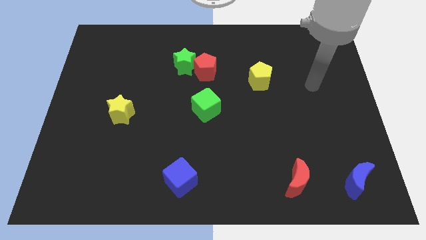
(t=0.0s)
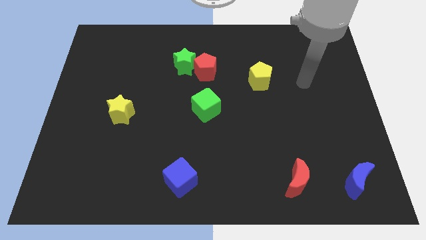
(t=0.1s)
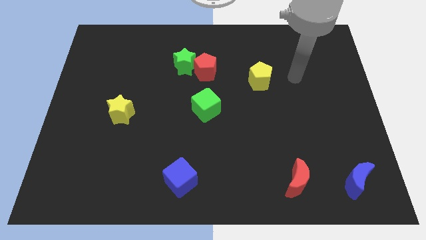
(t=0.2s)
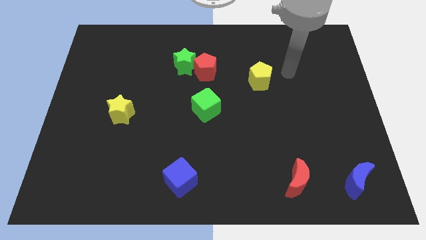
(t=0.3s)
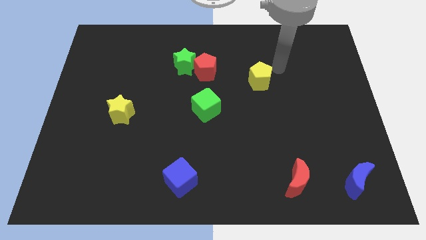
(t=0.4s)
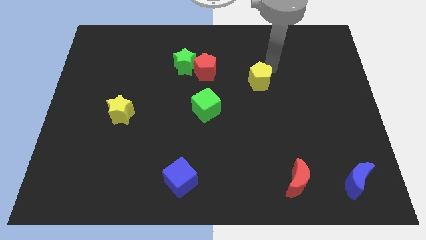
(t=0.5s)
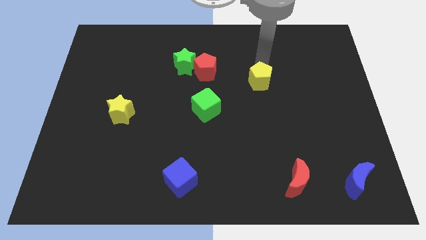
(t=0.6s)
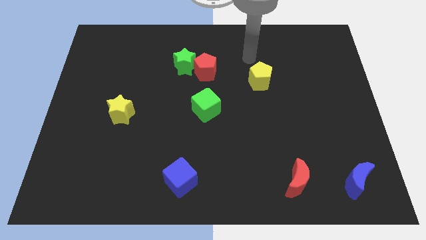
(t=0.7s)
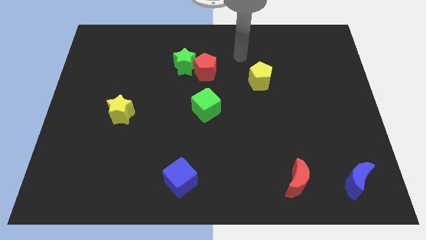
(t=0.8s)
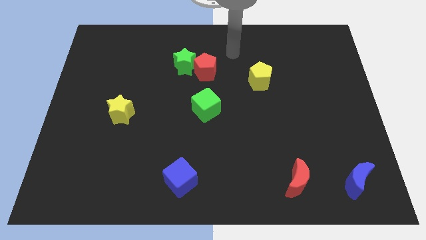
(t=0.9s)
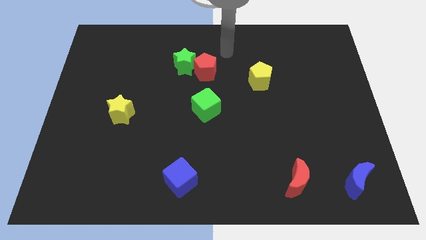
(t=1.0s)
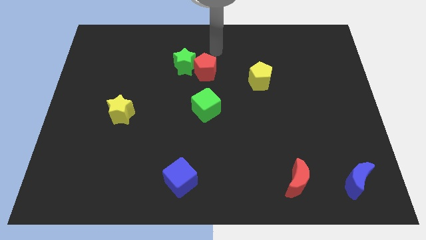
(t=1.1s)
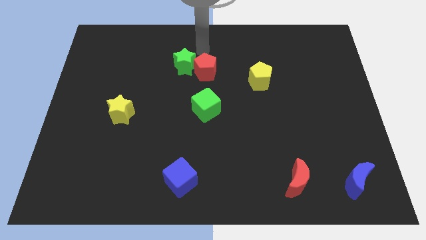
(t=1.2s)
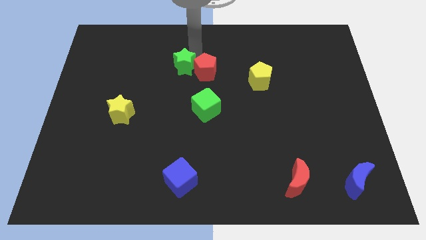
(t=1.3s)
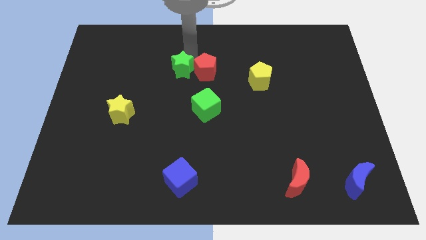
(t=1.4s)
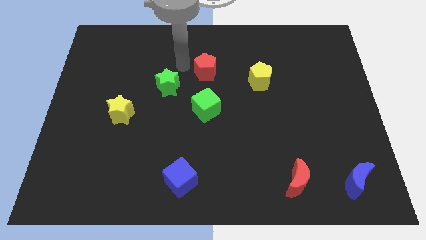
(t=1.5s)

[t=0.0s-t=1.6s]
move the red pentagon away from the green star

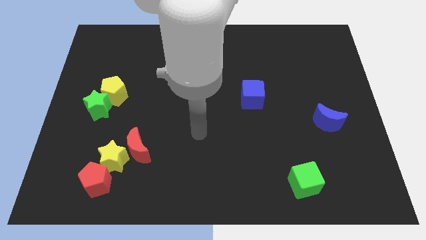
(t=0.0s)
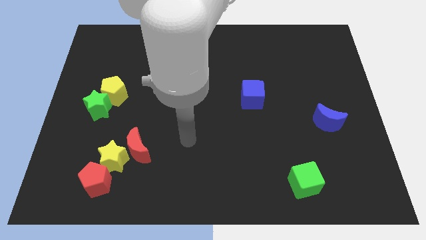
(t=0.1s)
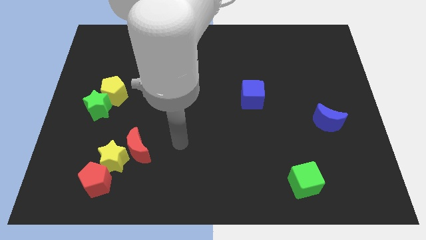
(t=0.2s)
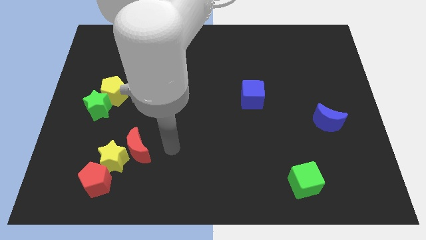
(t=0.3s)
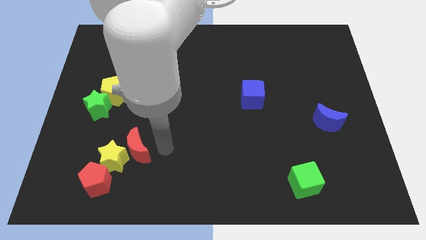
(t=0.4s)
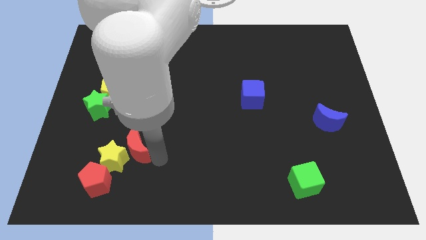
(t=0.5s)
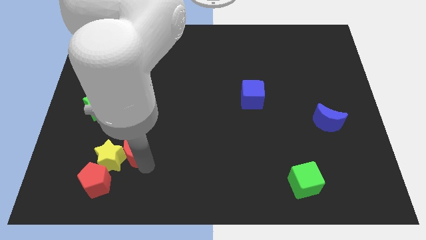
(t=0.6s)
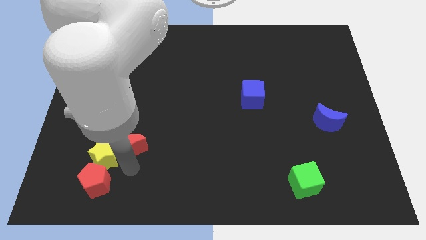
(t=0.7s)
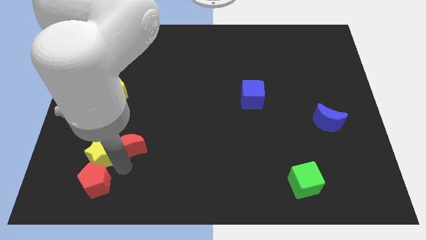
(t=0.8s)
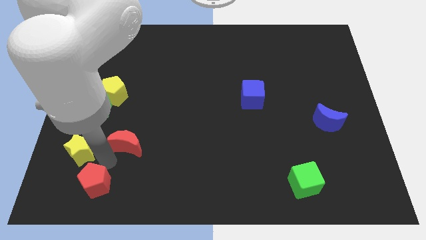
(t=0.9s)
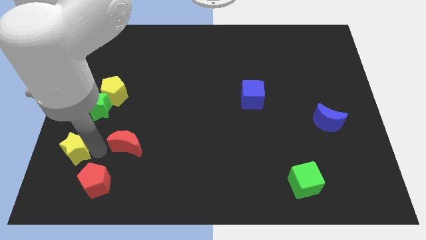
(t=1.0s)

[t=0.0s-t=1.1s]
separate the red moon from the yellow star

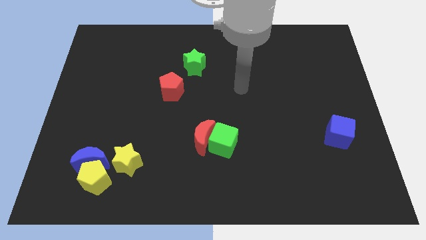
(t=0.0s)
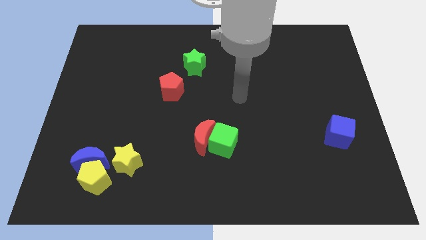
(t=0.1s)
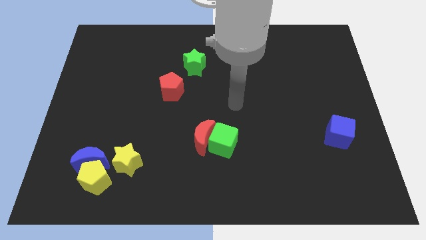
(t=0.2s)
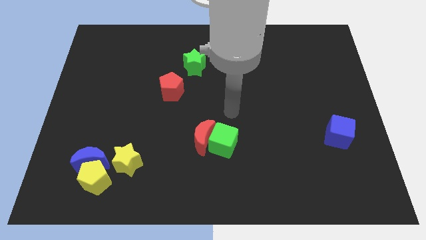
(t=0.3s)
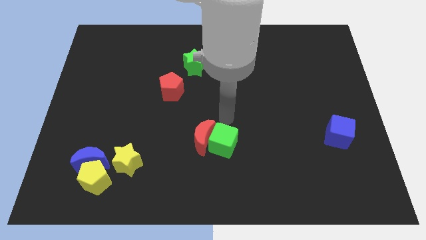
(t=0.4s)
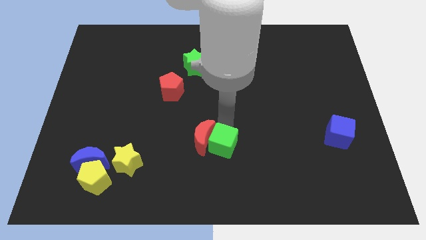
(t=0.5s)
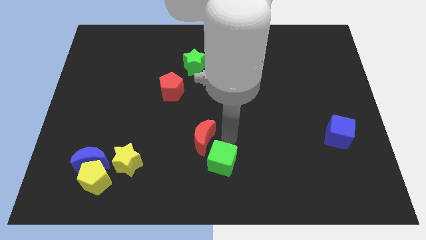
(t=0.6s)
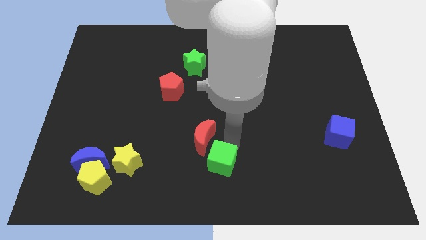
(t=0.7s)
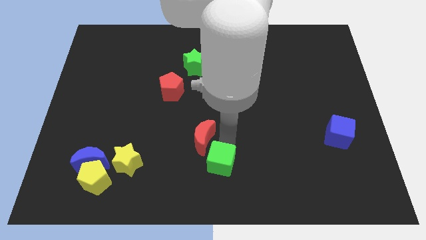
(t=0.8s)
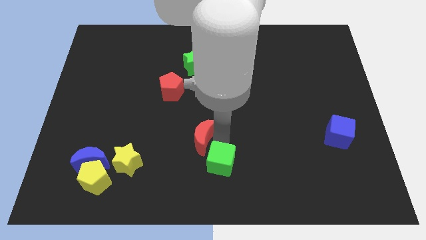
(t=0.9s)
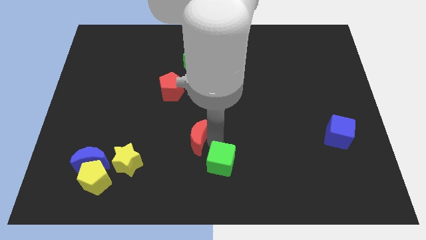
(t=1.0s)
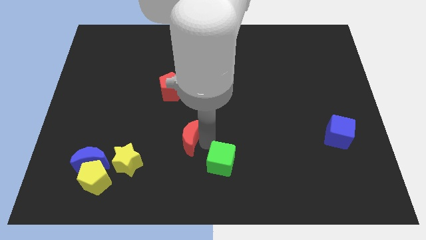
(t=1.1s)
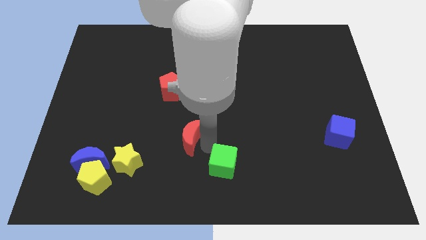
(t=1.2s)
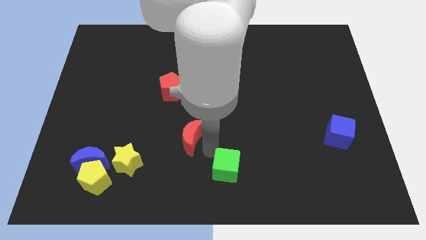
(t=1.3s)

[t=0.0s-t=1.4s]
pull the red moon apart from the green cube

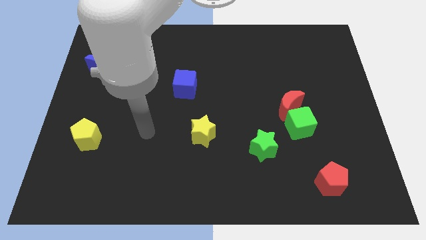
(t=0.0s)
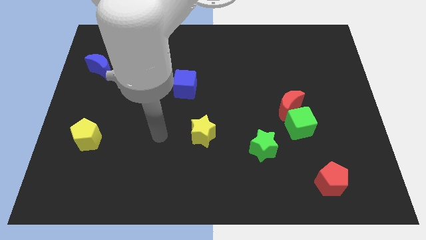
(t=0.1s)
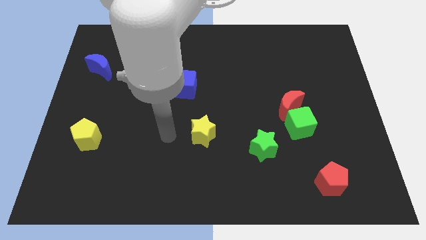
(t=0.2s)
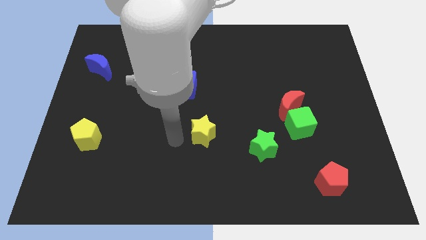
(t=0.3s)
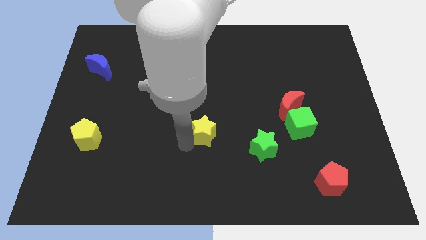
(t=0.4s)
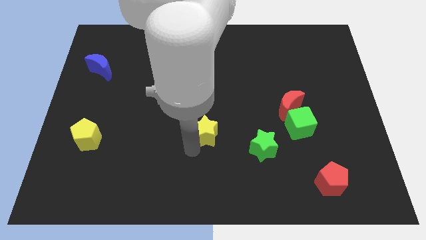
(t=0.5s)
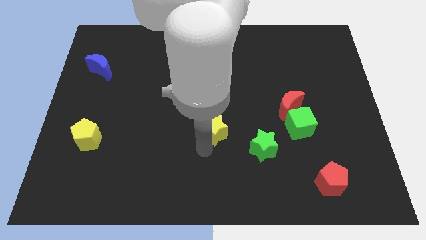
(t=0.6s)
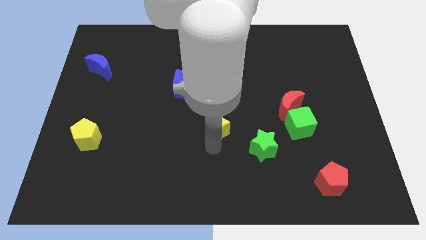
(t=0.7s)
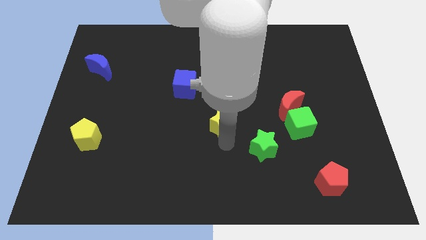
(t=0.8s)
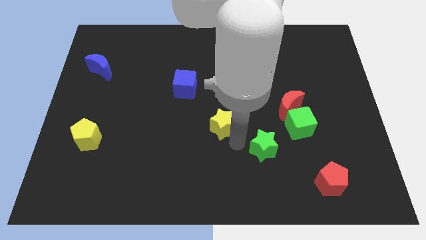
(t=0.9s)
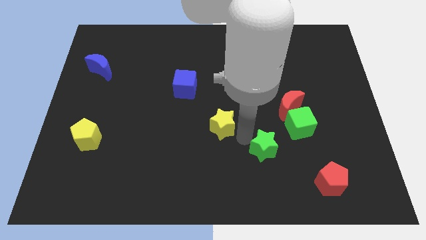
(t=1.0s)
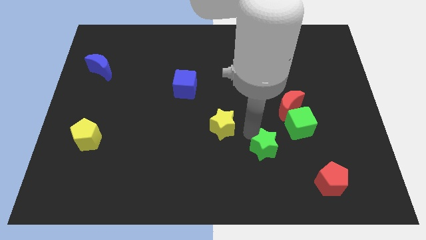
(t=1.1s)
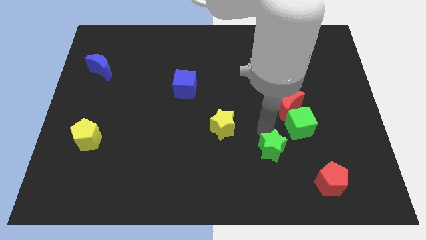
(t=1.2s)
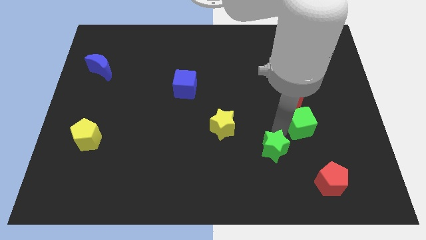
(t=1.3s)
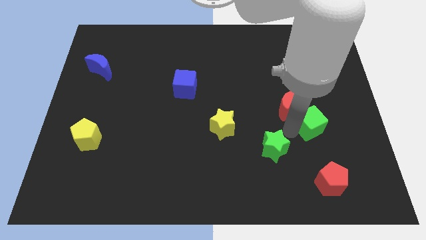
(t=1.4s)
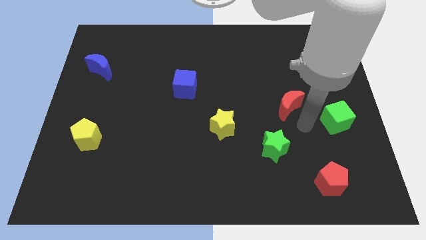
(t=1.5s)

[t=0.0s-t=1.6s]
move the red moon away from the green cube

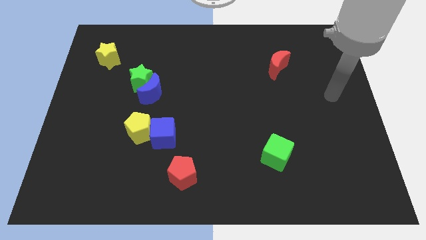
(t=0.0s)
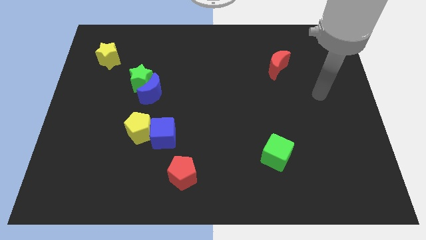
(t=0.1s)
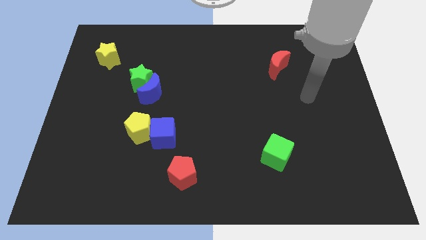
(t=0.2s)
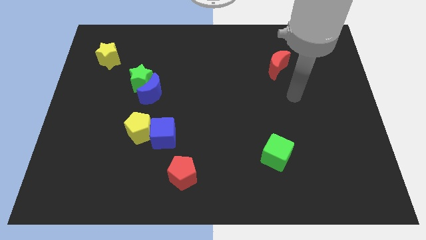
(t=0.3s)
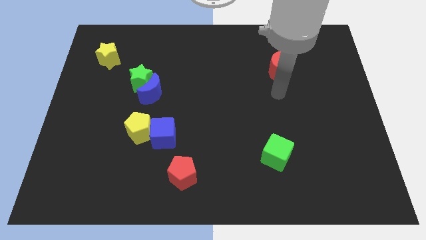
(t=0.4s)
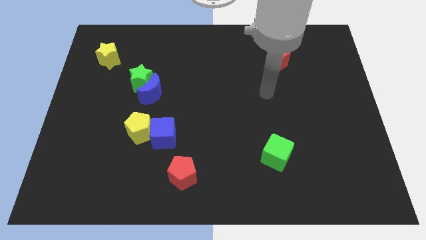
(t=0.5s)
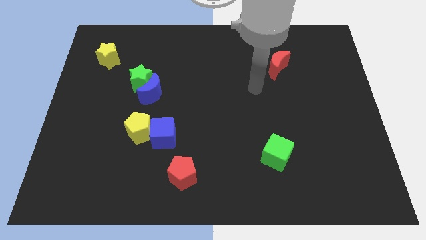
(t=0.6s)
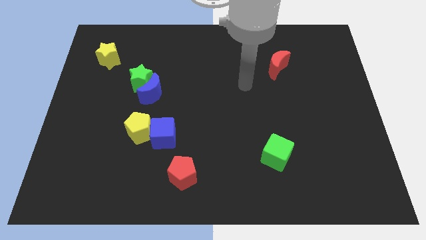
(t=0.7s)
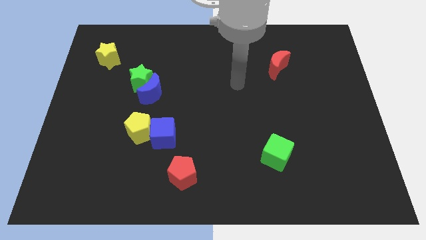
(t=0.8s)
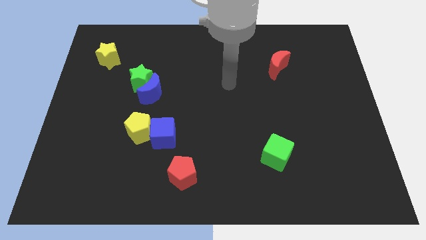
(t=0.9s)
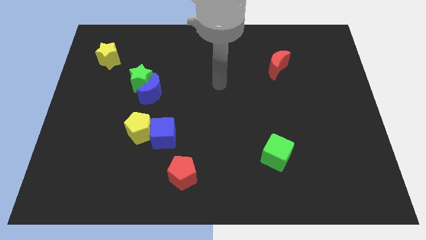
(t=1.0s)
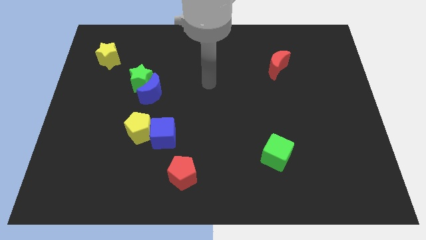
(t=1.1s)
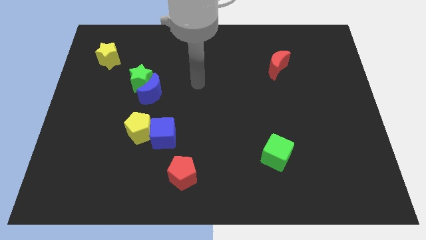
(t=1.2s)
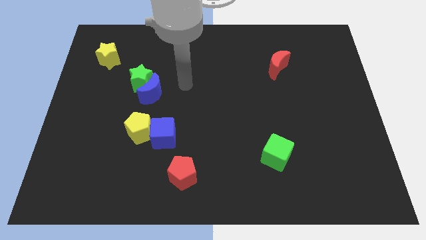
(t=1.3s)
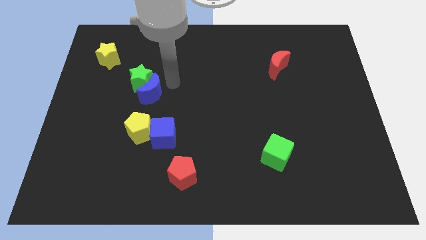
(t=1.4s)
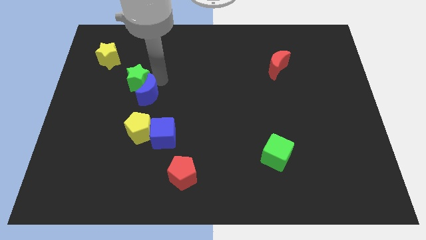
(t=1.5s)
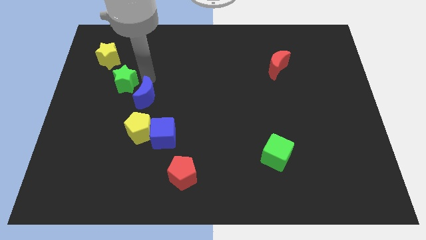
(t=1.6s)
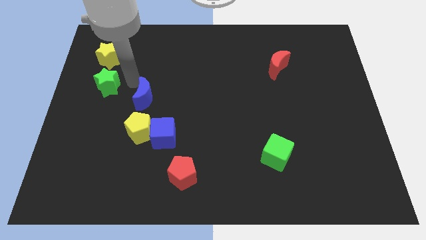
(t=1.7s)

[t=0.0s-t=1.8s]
move the blue moon away from the green star

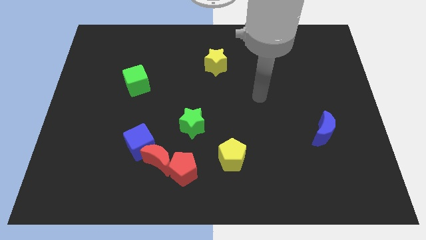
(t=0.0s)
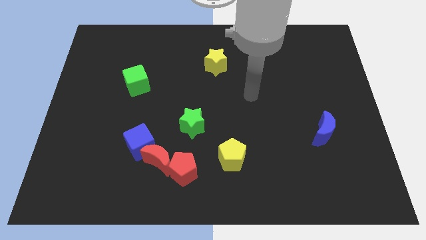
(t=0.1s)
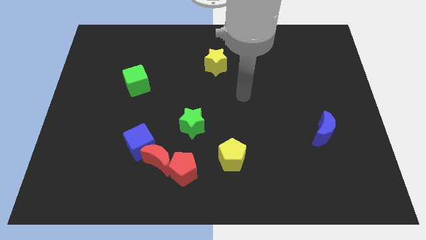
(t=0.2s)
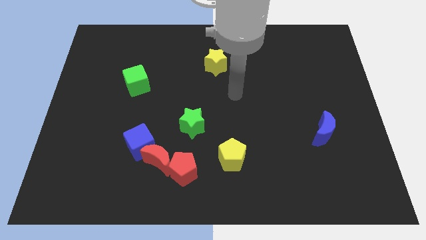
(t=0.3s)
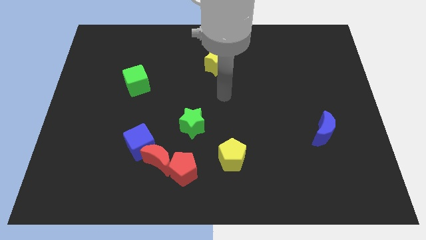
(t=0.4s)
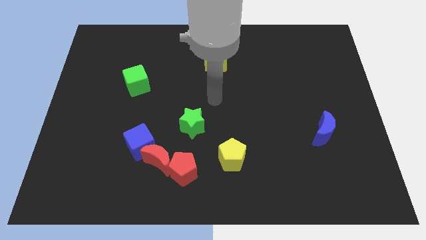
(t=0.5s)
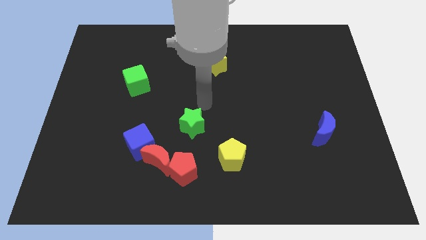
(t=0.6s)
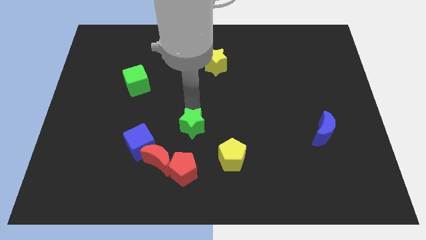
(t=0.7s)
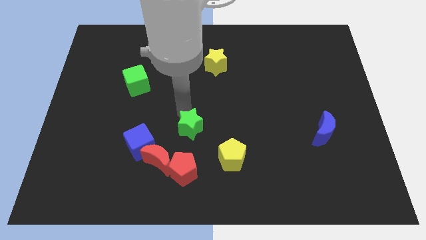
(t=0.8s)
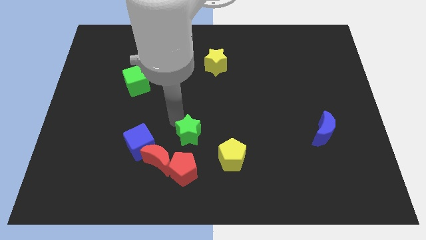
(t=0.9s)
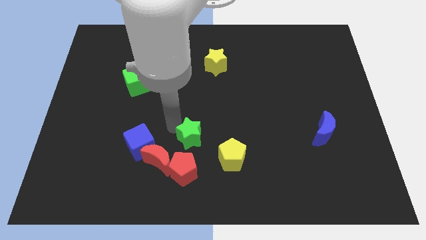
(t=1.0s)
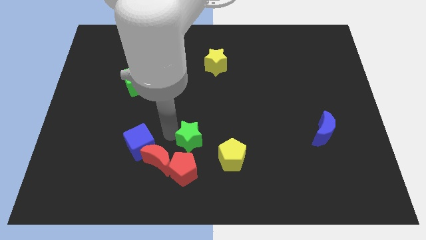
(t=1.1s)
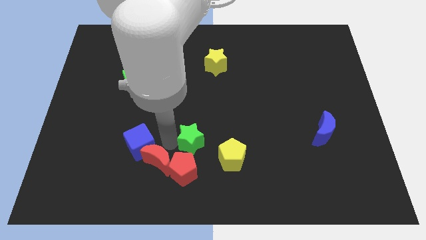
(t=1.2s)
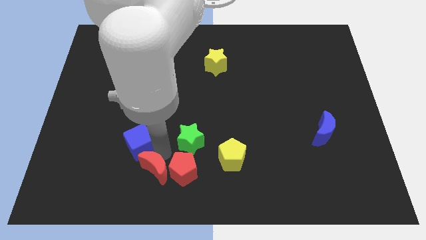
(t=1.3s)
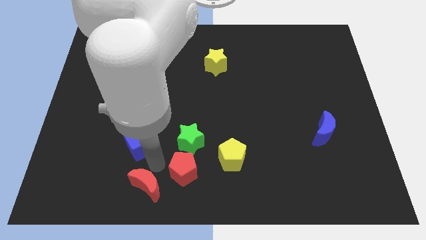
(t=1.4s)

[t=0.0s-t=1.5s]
pull the blue cube apart from the red moon

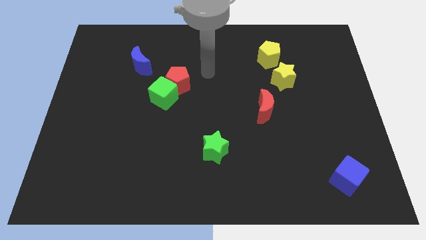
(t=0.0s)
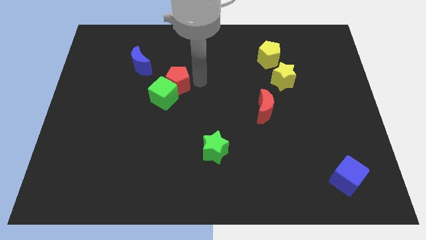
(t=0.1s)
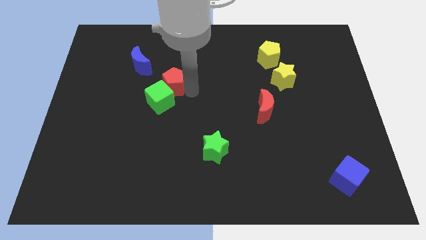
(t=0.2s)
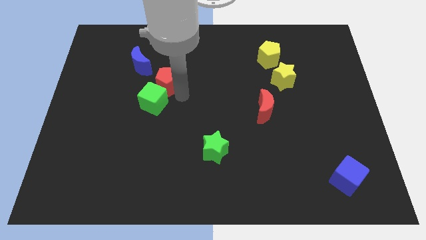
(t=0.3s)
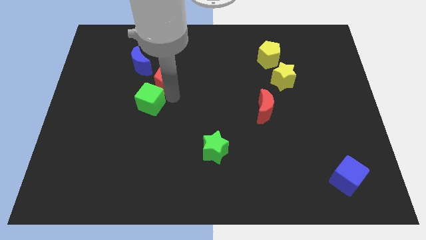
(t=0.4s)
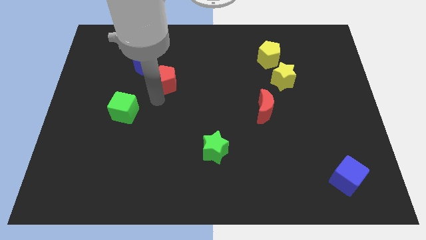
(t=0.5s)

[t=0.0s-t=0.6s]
pull the red pentagon apart from the green cube
